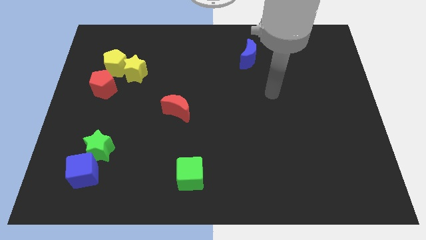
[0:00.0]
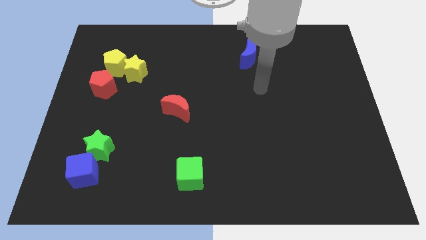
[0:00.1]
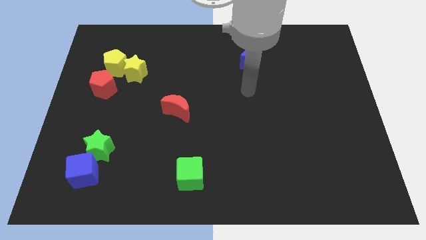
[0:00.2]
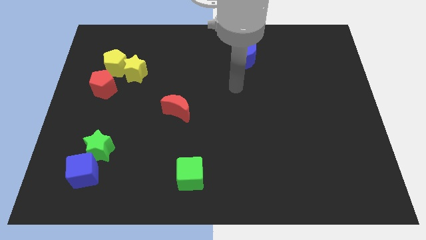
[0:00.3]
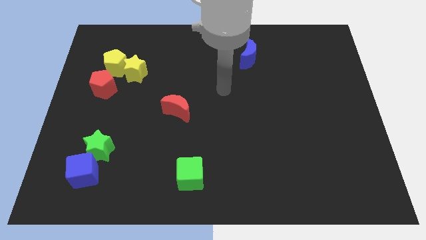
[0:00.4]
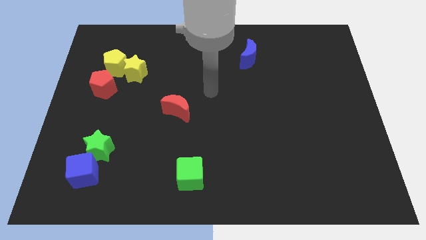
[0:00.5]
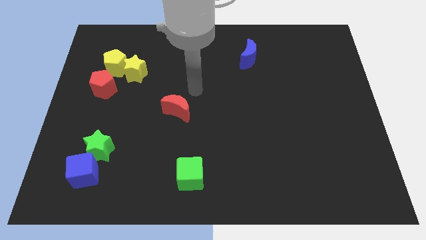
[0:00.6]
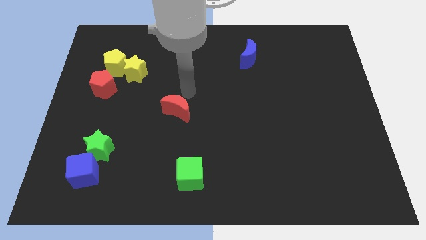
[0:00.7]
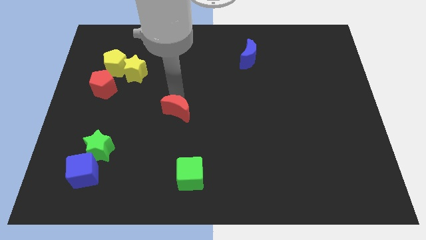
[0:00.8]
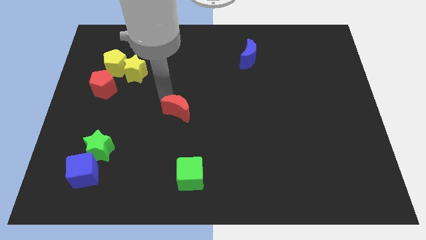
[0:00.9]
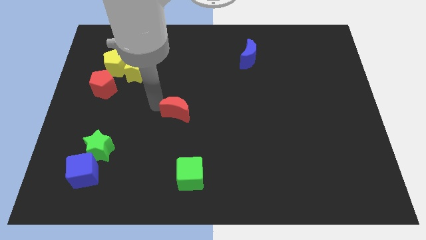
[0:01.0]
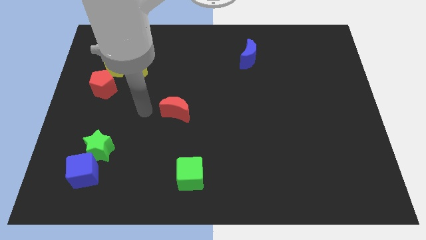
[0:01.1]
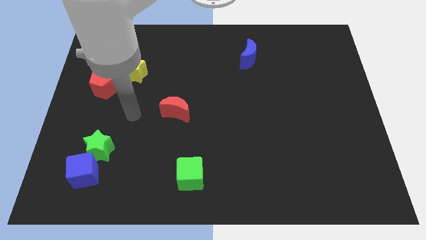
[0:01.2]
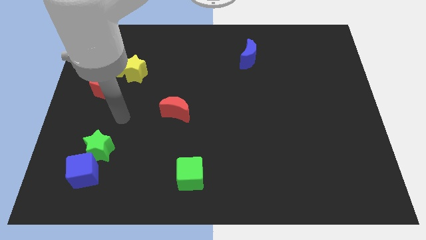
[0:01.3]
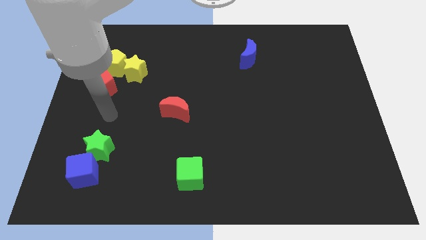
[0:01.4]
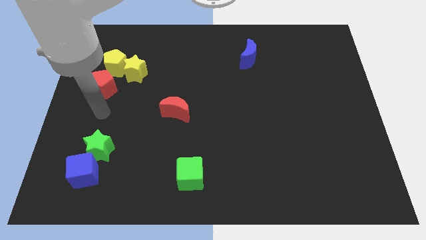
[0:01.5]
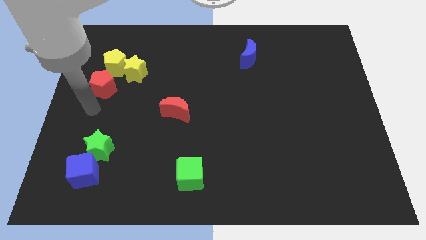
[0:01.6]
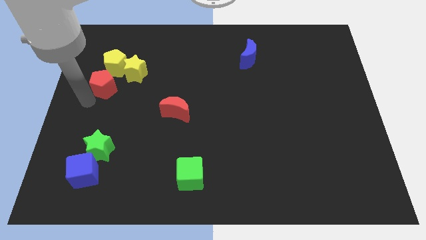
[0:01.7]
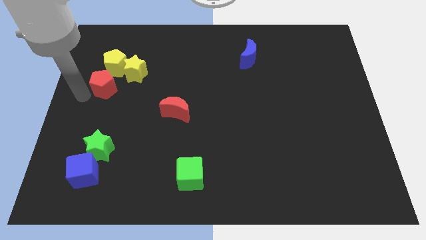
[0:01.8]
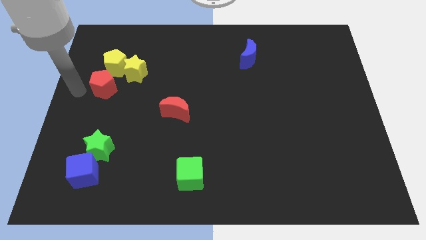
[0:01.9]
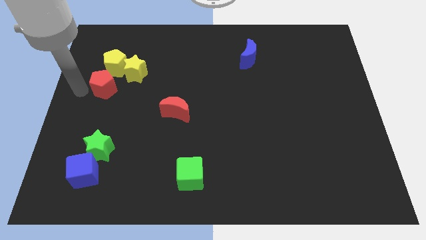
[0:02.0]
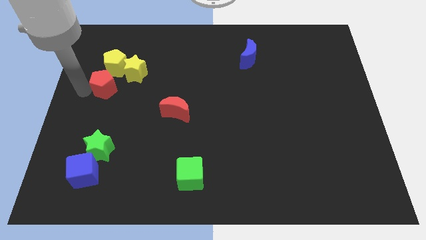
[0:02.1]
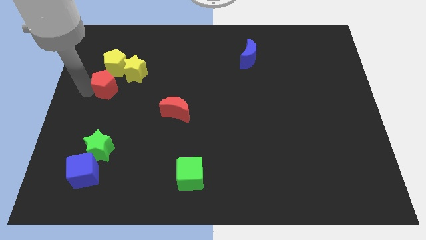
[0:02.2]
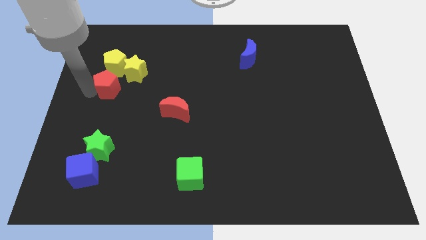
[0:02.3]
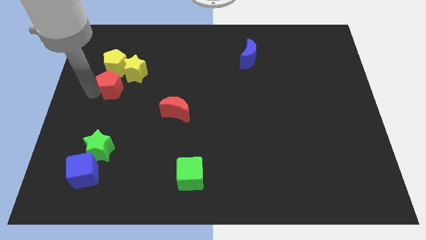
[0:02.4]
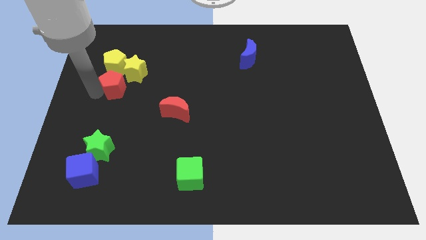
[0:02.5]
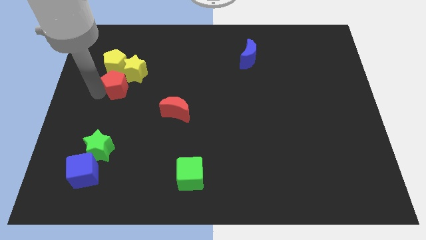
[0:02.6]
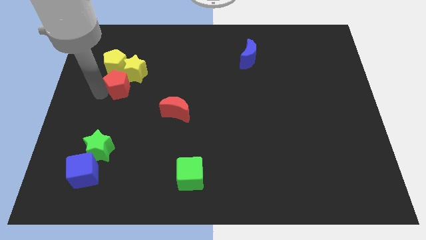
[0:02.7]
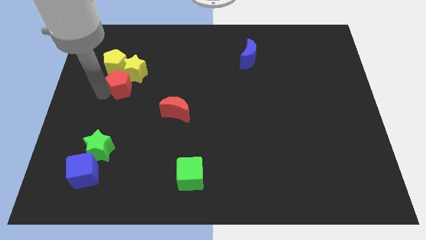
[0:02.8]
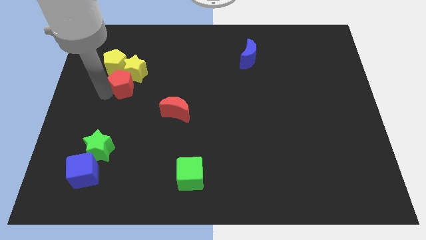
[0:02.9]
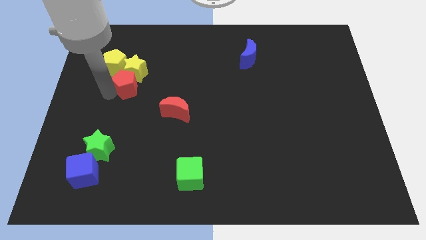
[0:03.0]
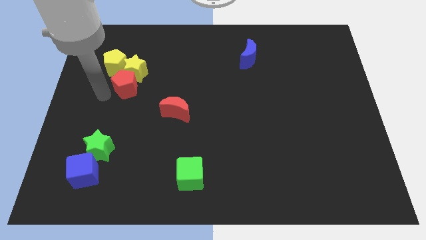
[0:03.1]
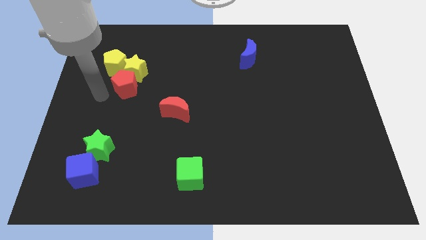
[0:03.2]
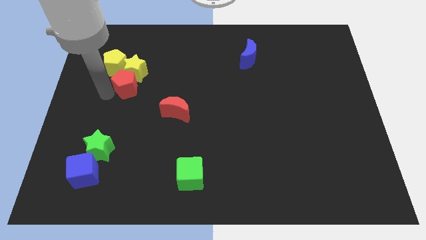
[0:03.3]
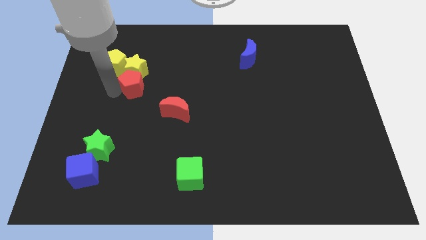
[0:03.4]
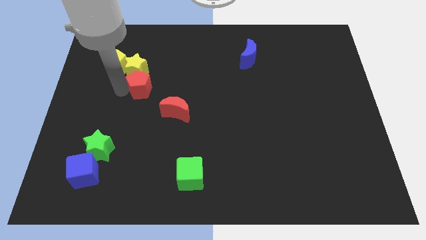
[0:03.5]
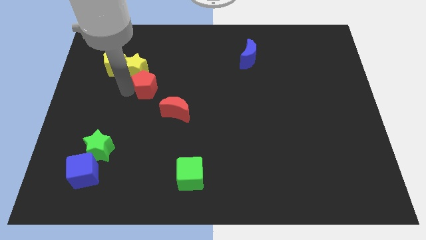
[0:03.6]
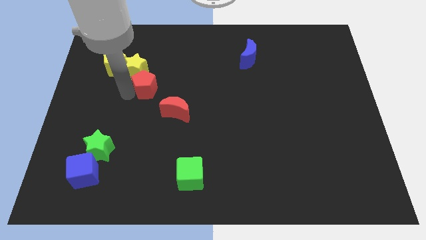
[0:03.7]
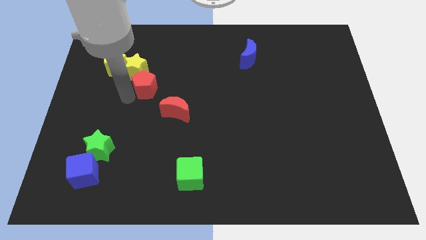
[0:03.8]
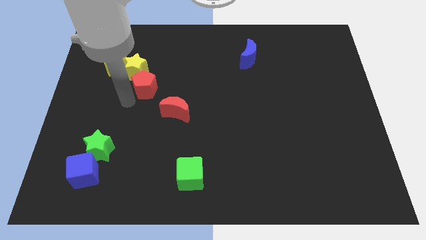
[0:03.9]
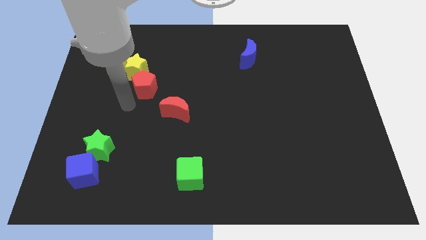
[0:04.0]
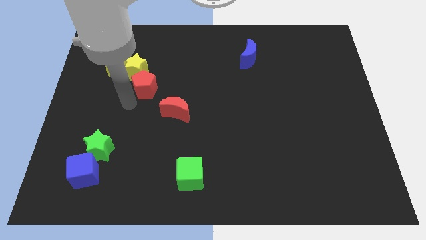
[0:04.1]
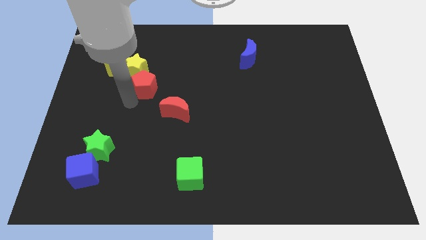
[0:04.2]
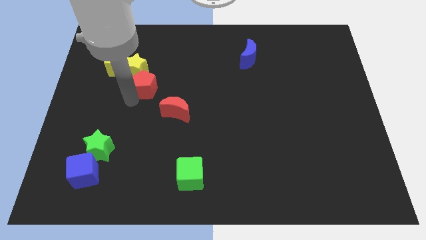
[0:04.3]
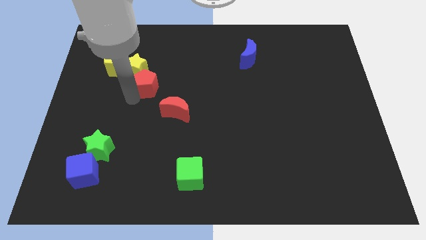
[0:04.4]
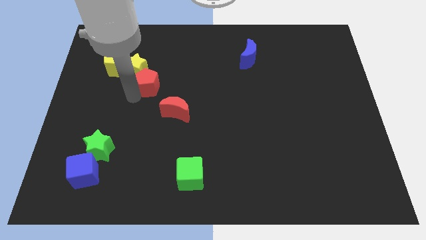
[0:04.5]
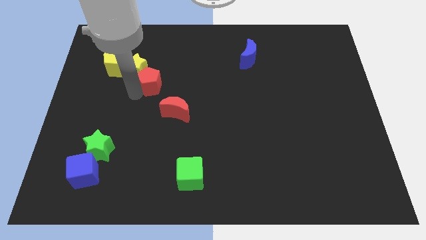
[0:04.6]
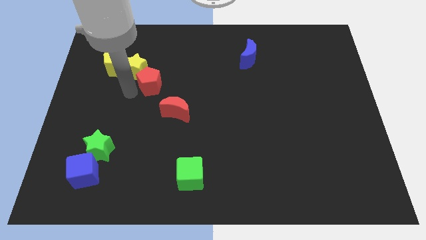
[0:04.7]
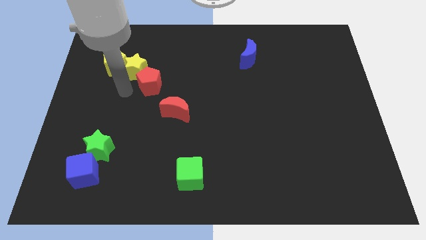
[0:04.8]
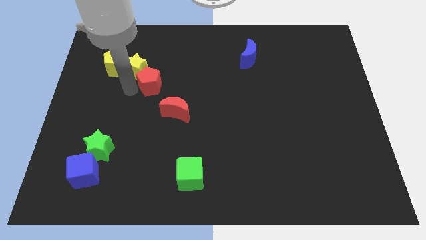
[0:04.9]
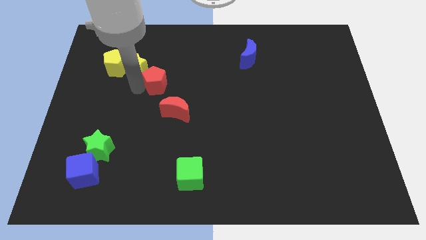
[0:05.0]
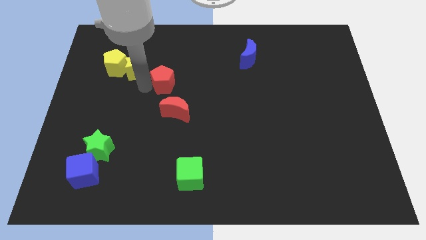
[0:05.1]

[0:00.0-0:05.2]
put the red pentagon to the top side of the red moon
